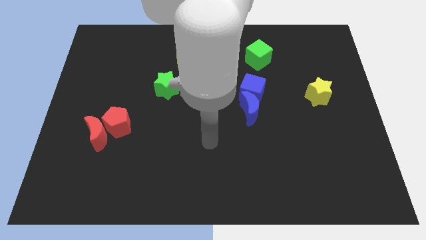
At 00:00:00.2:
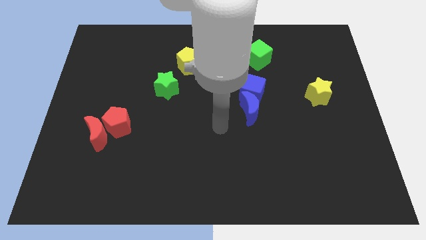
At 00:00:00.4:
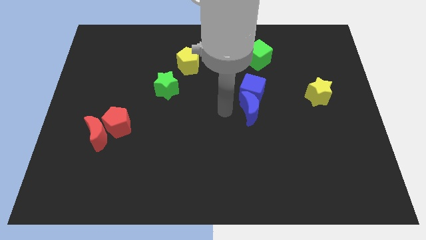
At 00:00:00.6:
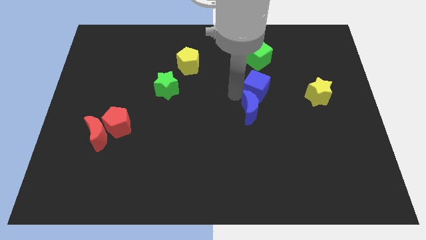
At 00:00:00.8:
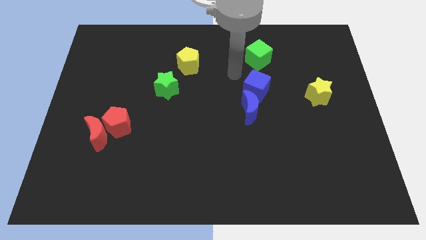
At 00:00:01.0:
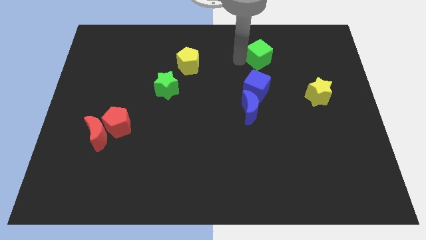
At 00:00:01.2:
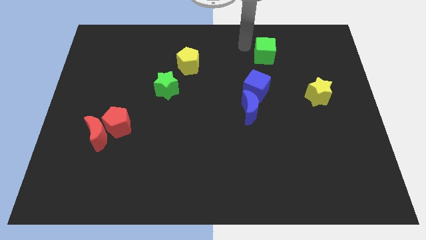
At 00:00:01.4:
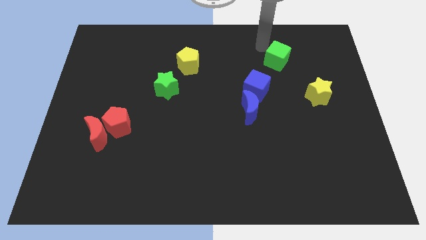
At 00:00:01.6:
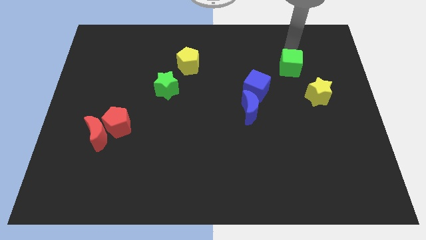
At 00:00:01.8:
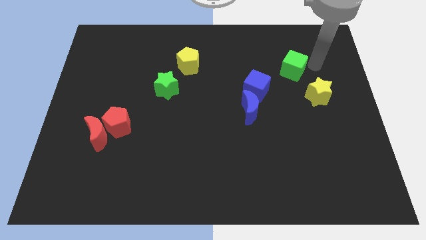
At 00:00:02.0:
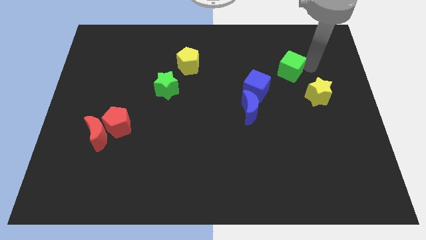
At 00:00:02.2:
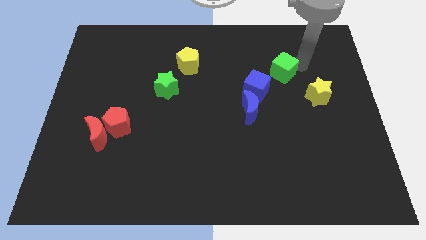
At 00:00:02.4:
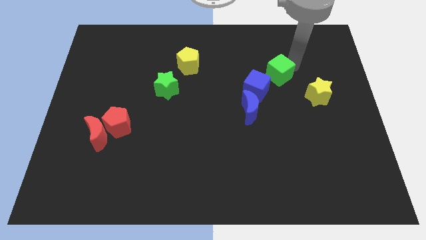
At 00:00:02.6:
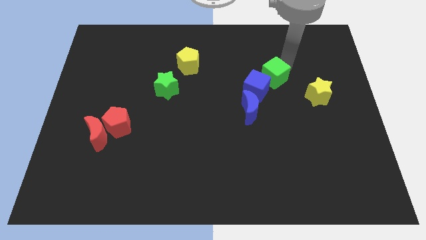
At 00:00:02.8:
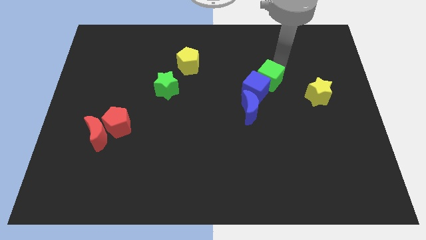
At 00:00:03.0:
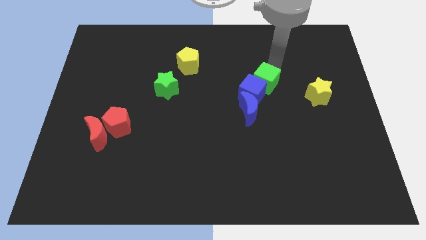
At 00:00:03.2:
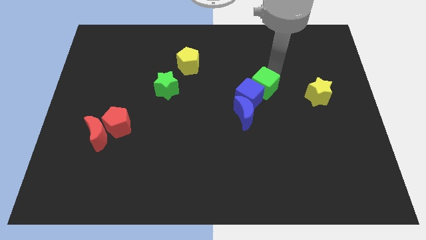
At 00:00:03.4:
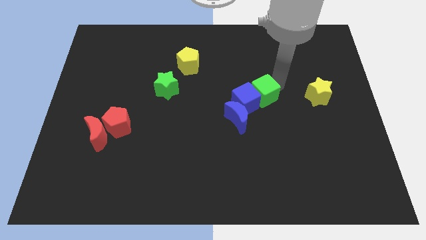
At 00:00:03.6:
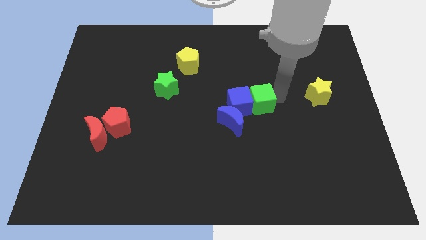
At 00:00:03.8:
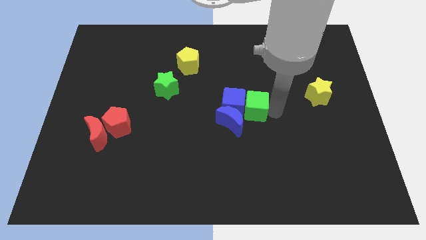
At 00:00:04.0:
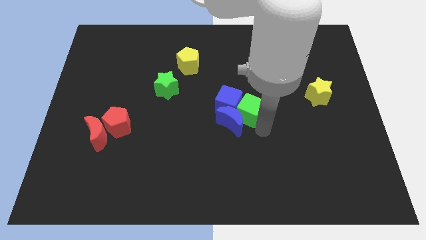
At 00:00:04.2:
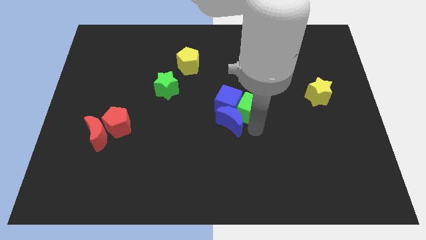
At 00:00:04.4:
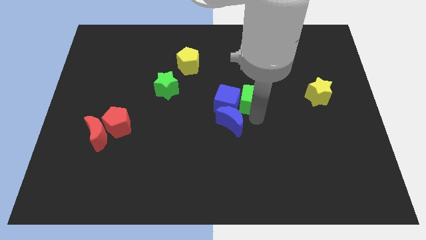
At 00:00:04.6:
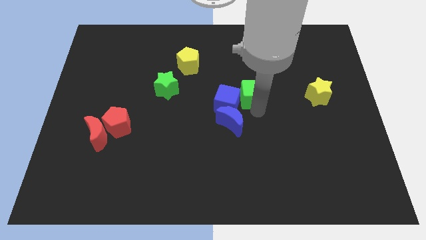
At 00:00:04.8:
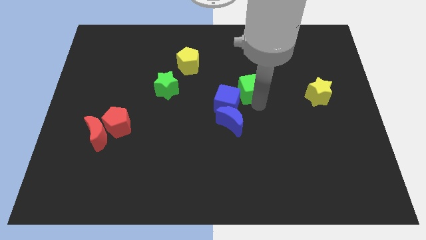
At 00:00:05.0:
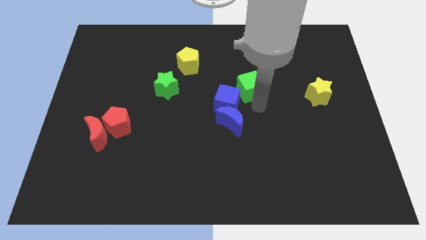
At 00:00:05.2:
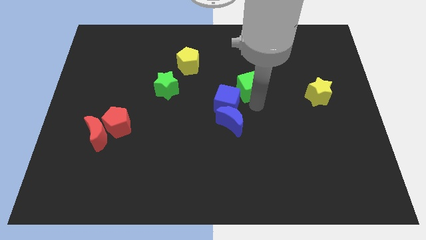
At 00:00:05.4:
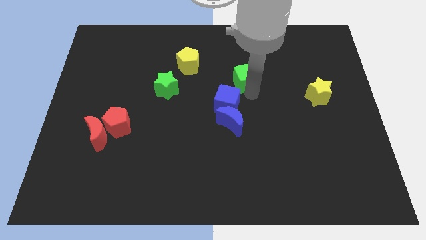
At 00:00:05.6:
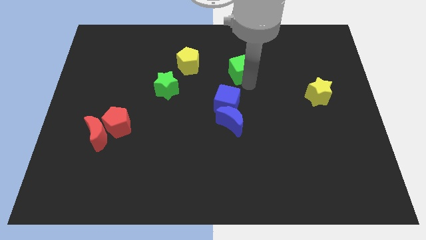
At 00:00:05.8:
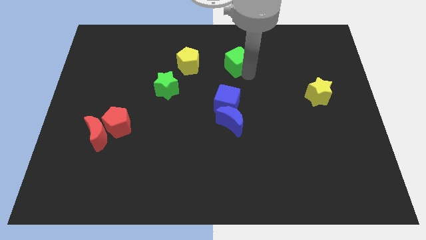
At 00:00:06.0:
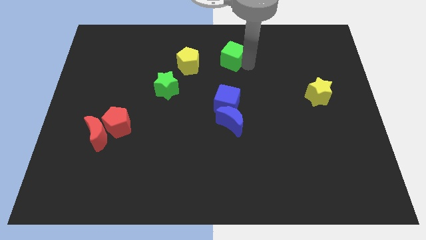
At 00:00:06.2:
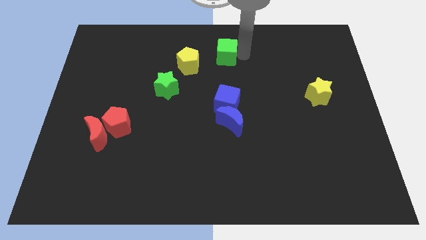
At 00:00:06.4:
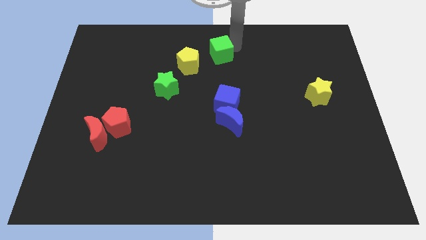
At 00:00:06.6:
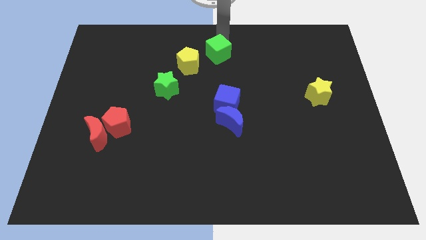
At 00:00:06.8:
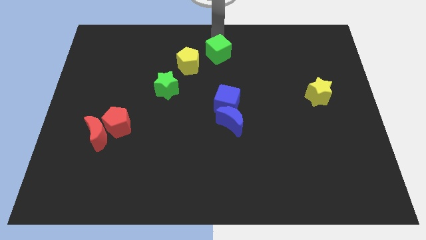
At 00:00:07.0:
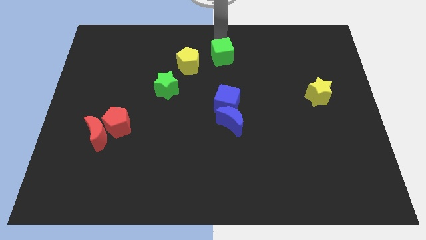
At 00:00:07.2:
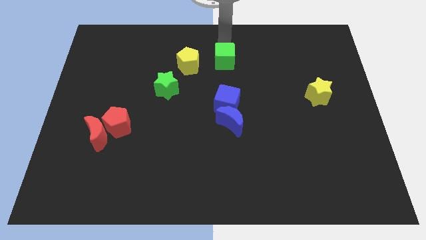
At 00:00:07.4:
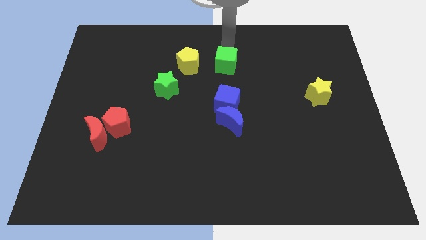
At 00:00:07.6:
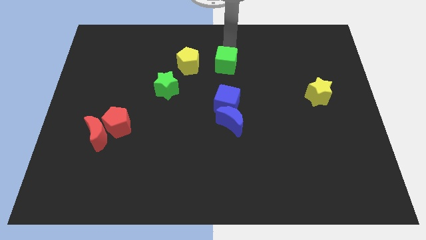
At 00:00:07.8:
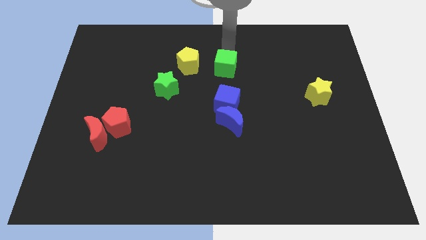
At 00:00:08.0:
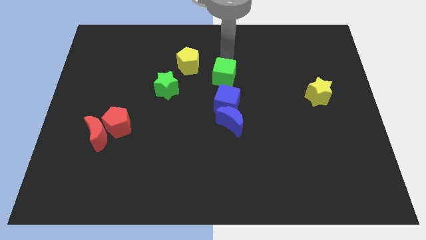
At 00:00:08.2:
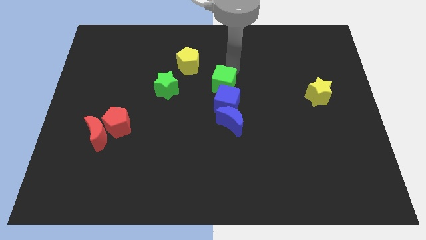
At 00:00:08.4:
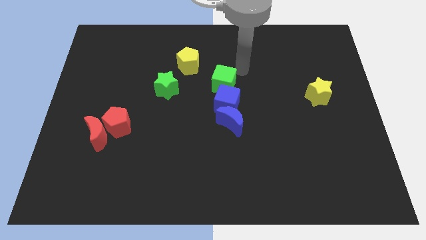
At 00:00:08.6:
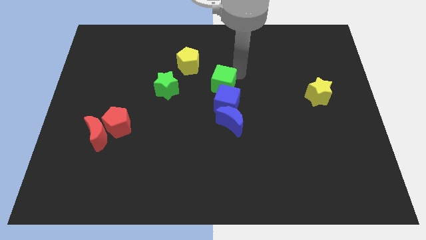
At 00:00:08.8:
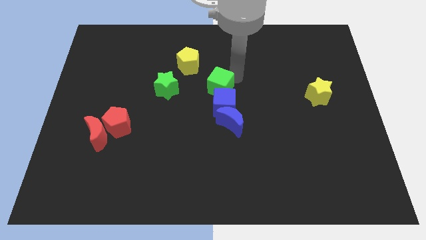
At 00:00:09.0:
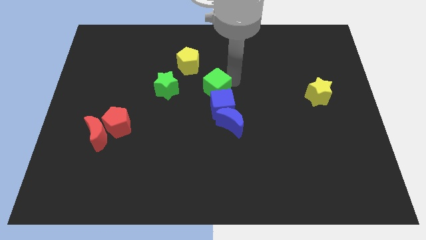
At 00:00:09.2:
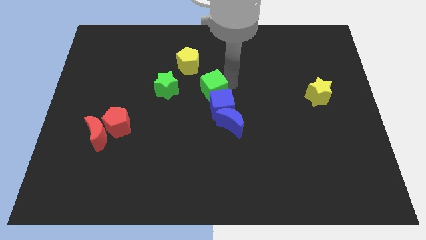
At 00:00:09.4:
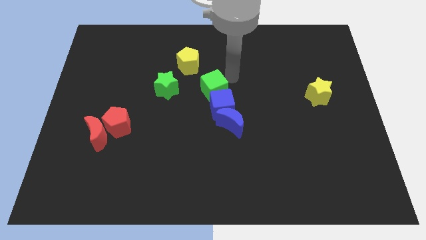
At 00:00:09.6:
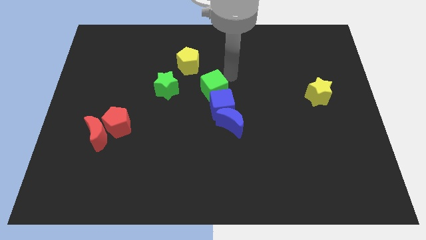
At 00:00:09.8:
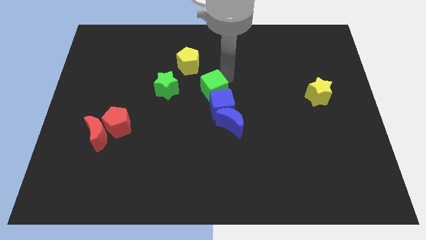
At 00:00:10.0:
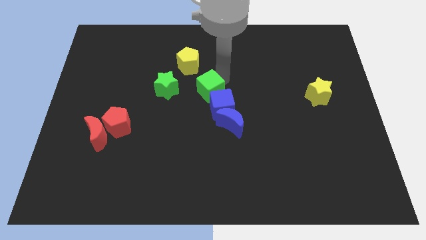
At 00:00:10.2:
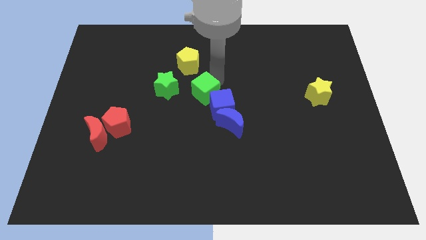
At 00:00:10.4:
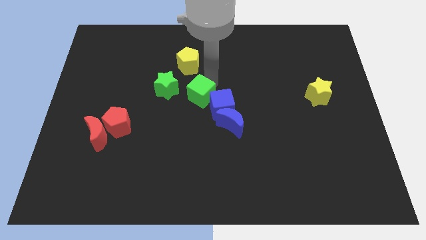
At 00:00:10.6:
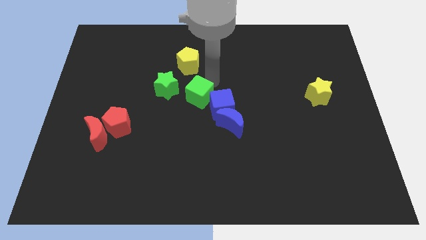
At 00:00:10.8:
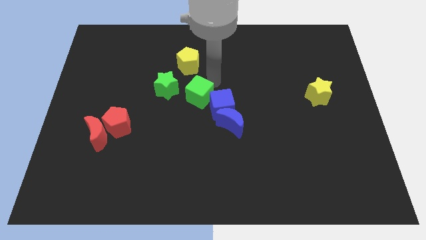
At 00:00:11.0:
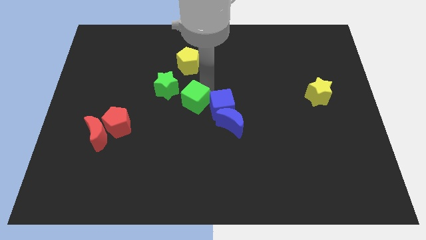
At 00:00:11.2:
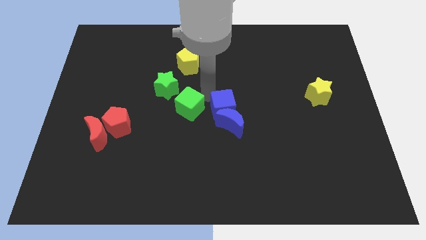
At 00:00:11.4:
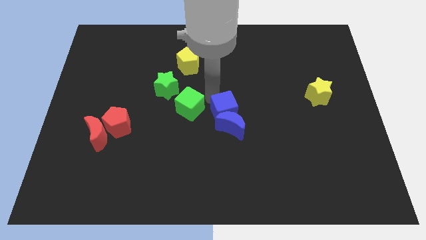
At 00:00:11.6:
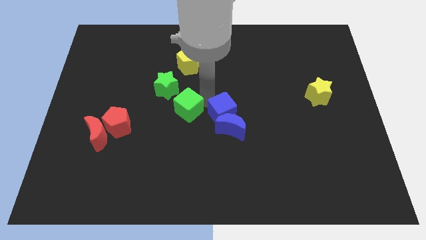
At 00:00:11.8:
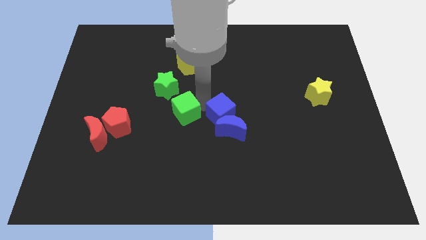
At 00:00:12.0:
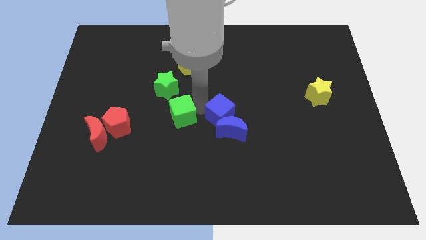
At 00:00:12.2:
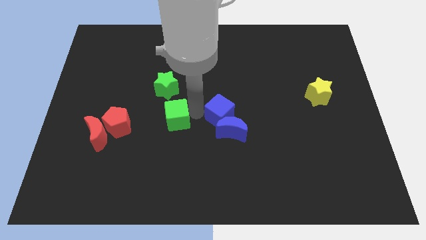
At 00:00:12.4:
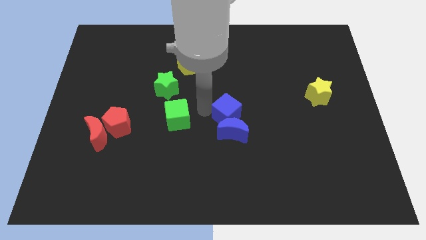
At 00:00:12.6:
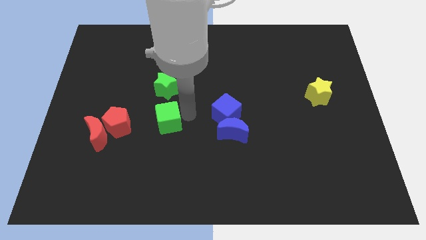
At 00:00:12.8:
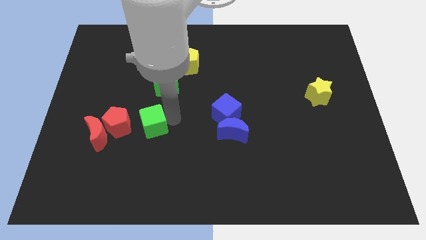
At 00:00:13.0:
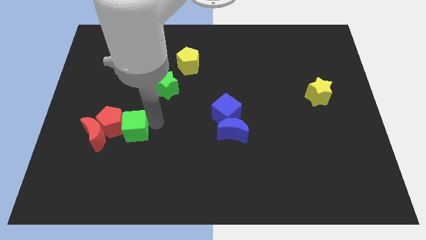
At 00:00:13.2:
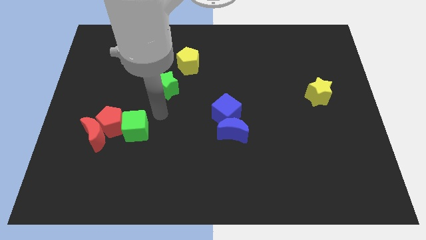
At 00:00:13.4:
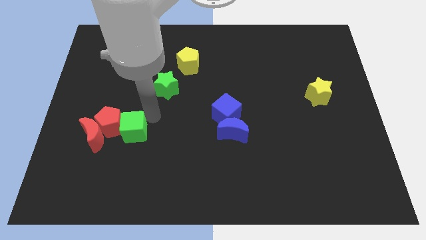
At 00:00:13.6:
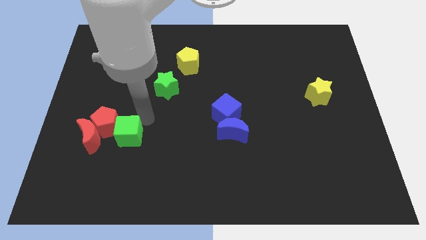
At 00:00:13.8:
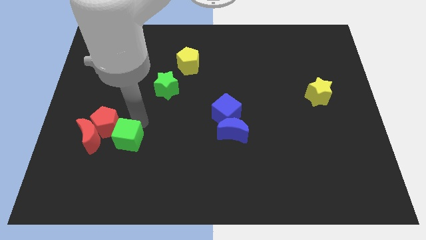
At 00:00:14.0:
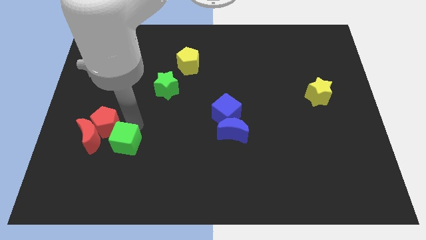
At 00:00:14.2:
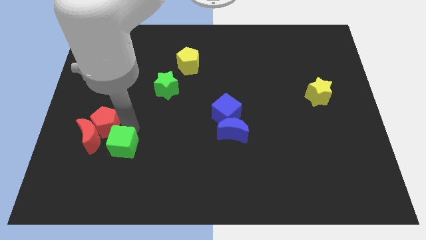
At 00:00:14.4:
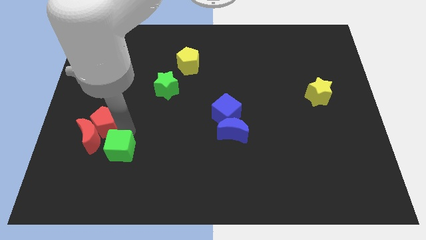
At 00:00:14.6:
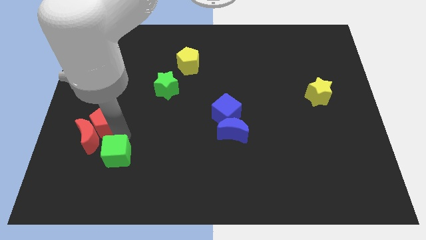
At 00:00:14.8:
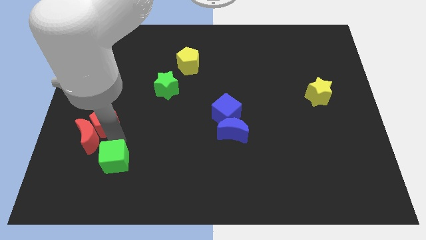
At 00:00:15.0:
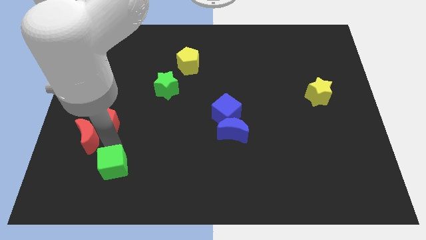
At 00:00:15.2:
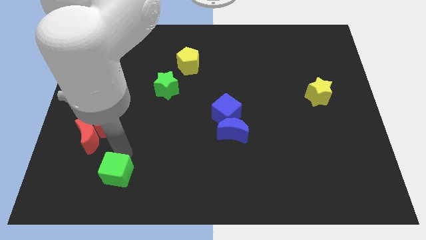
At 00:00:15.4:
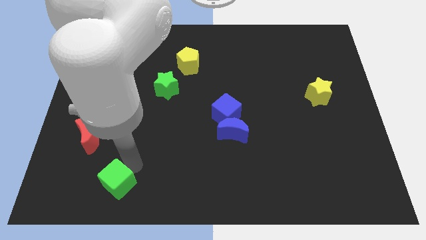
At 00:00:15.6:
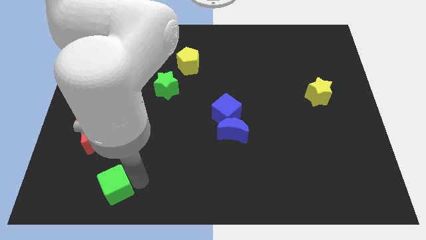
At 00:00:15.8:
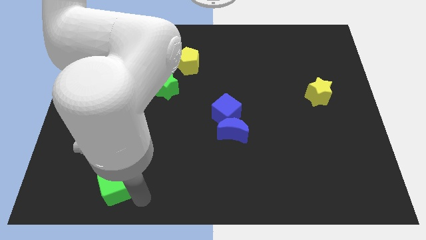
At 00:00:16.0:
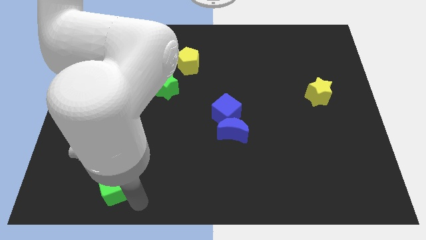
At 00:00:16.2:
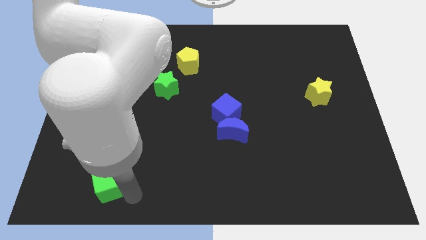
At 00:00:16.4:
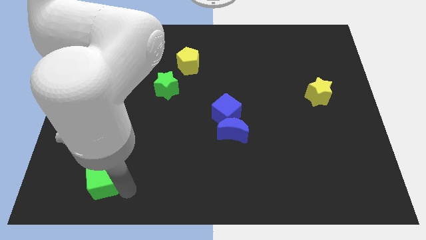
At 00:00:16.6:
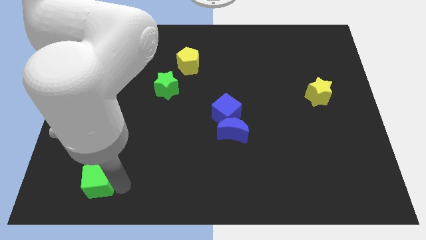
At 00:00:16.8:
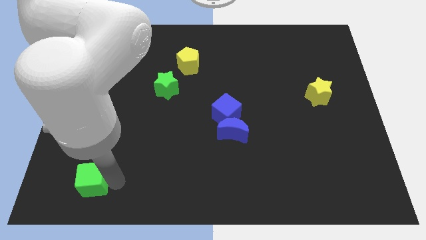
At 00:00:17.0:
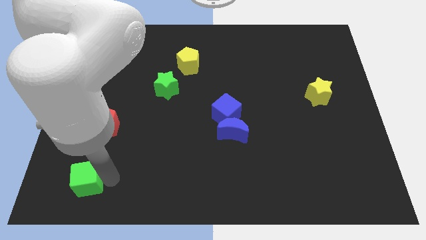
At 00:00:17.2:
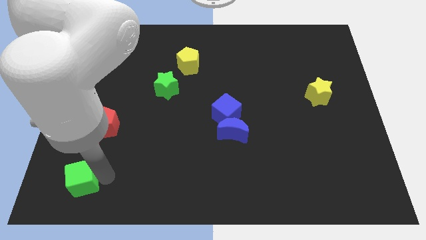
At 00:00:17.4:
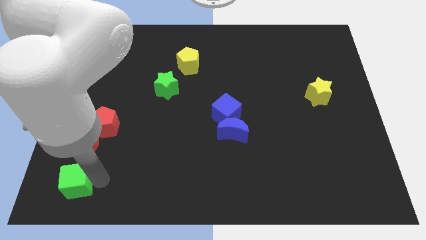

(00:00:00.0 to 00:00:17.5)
move the green cube to the lower left corner
